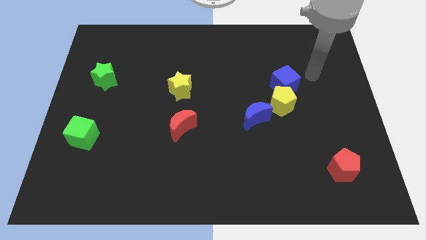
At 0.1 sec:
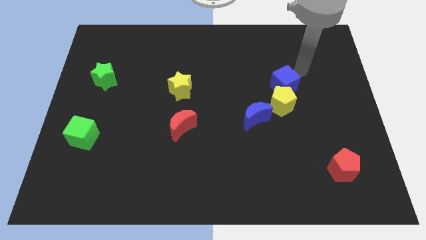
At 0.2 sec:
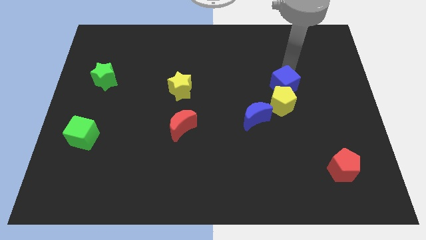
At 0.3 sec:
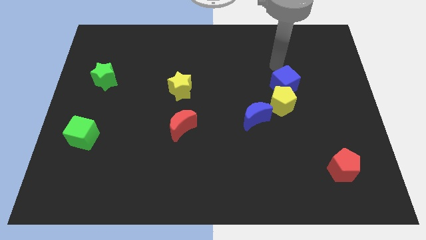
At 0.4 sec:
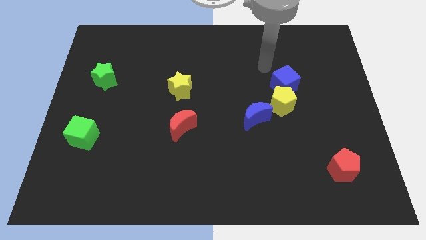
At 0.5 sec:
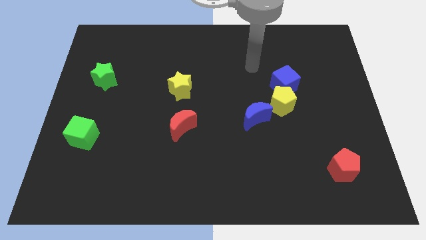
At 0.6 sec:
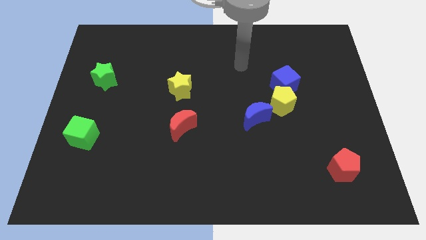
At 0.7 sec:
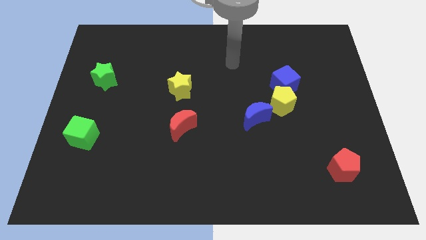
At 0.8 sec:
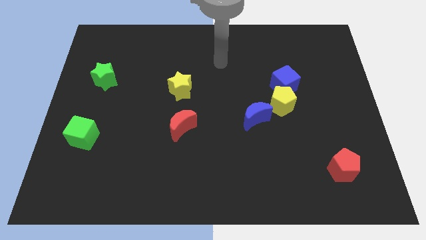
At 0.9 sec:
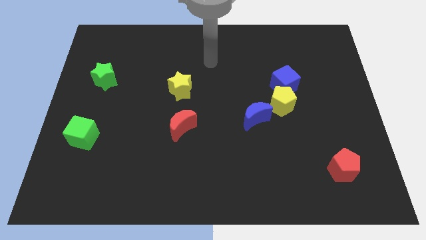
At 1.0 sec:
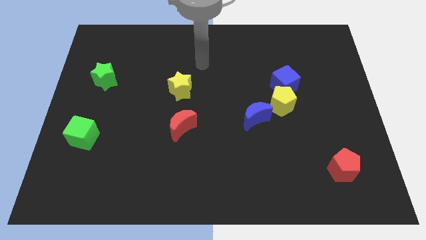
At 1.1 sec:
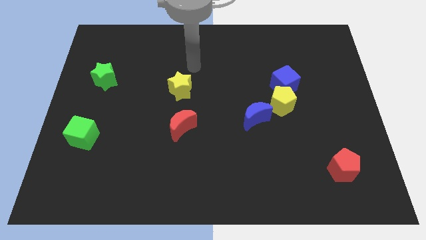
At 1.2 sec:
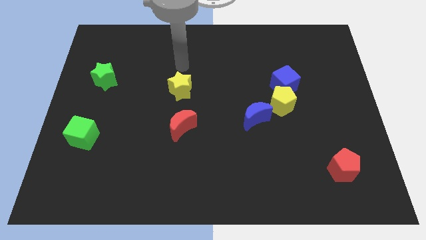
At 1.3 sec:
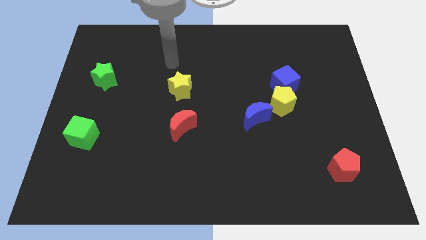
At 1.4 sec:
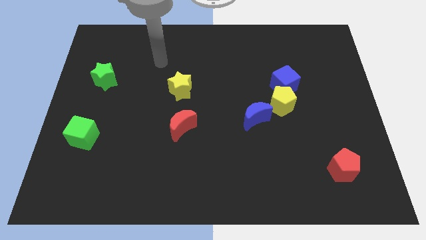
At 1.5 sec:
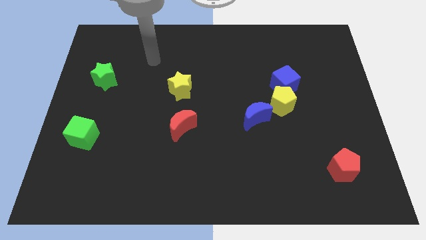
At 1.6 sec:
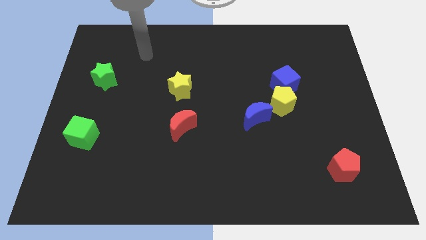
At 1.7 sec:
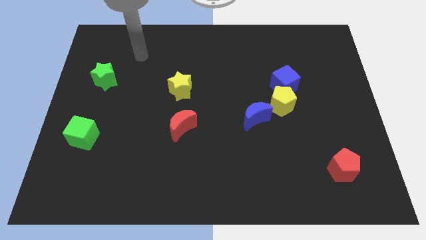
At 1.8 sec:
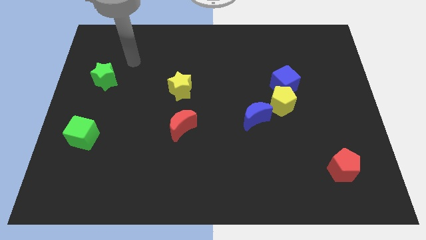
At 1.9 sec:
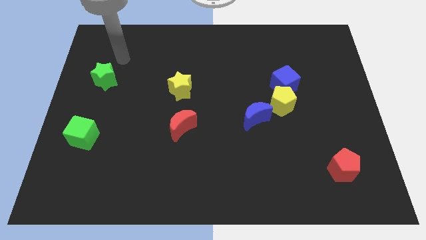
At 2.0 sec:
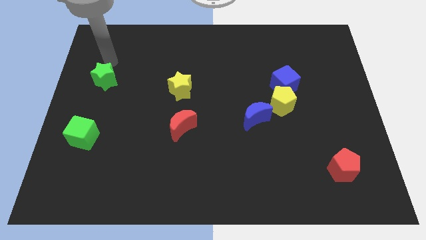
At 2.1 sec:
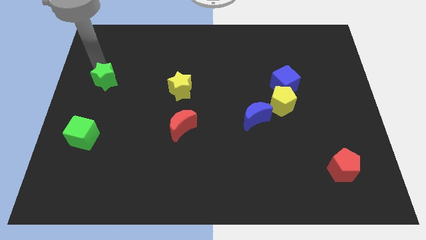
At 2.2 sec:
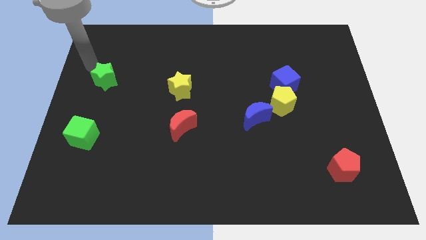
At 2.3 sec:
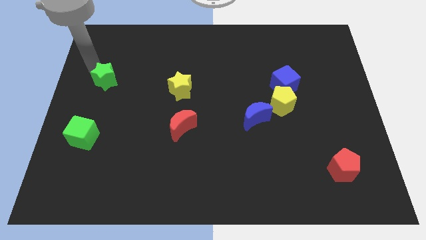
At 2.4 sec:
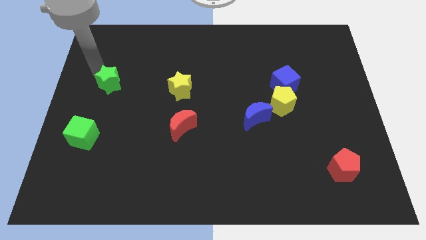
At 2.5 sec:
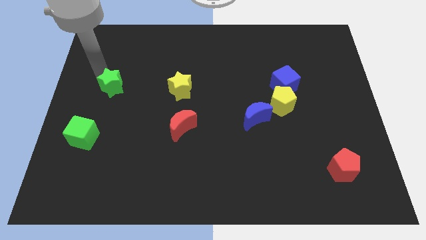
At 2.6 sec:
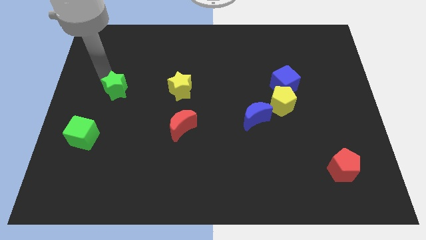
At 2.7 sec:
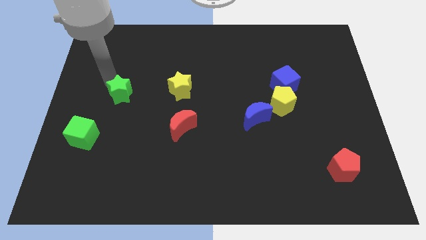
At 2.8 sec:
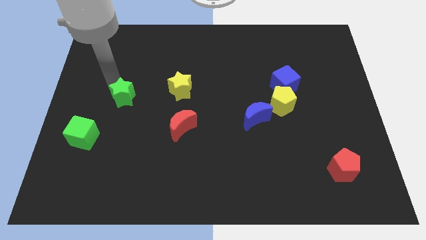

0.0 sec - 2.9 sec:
move the green star a bit downwards and then right

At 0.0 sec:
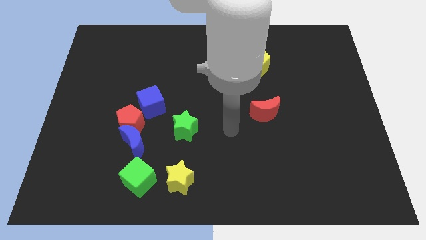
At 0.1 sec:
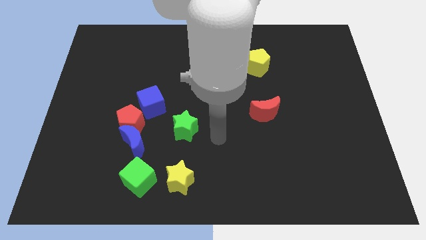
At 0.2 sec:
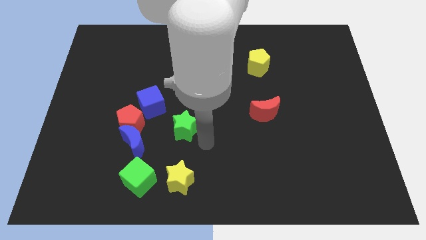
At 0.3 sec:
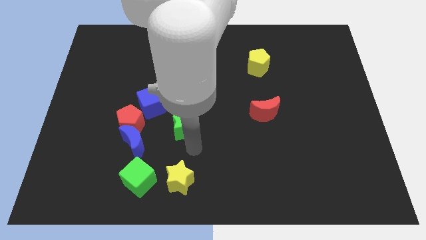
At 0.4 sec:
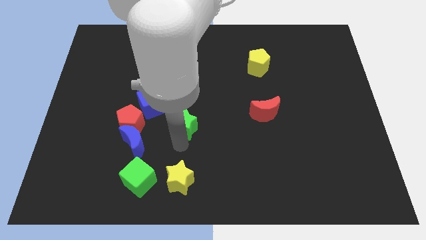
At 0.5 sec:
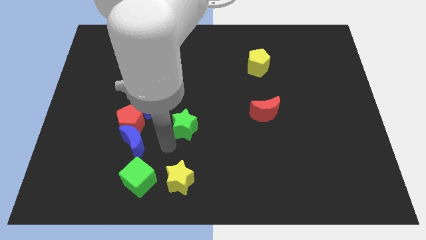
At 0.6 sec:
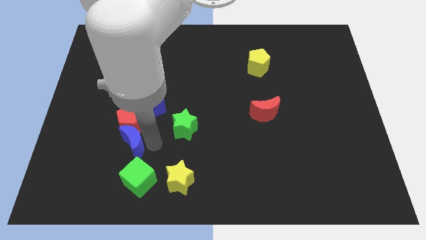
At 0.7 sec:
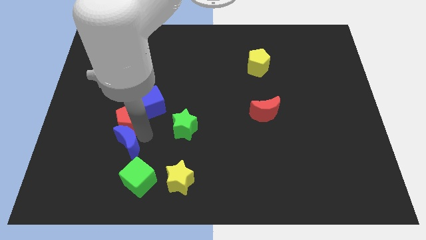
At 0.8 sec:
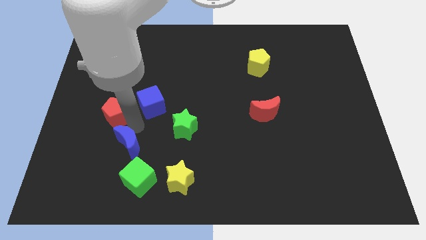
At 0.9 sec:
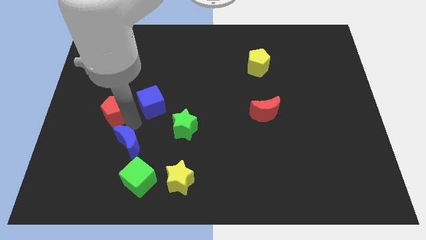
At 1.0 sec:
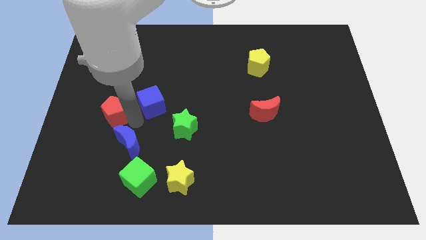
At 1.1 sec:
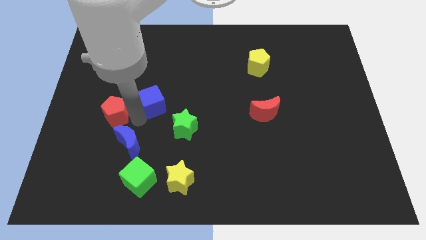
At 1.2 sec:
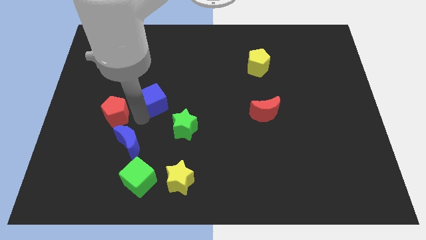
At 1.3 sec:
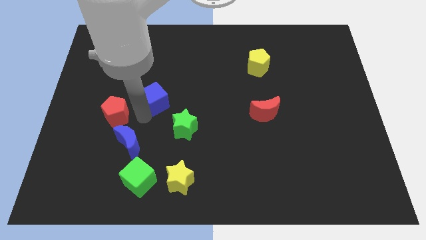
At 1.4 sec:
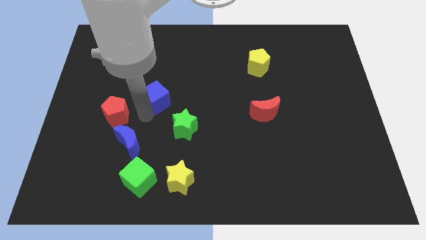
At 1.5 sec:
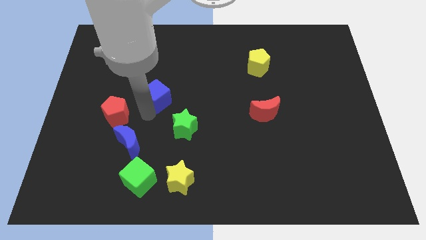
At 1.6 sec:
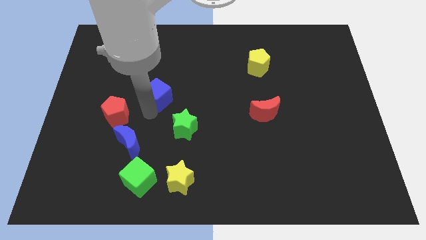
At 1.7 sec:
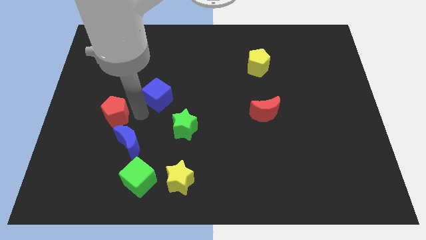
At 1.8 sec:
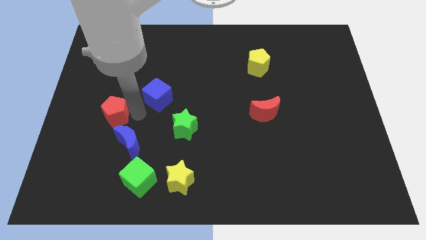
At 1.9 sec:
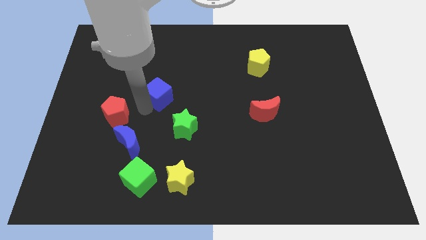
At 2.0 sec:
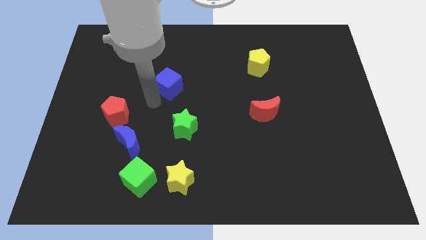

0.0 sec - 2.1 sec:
move the blue cube somewhat up and to the right diagonally

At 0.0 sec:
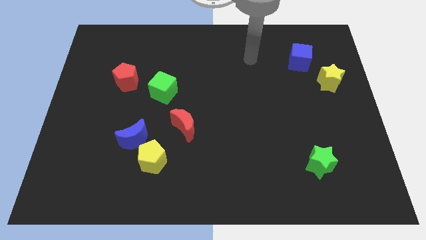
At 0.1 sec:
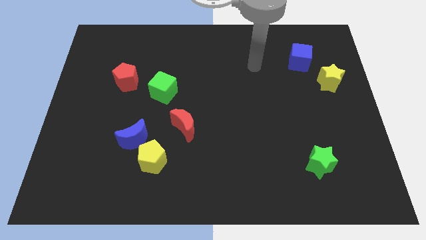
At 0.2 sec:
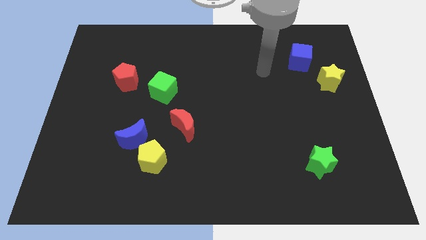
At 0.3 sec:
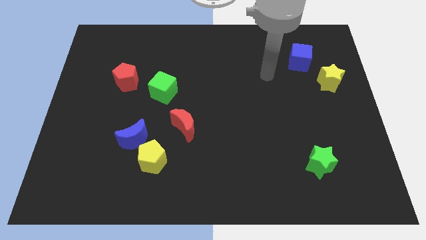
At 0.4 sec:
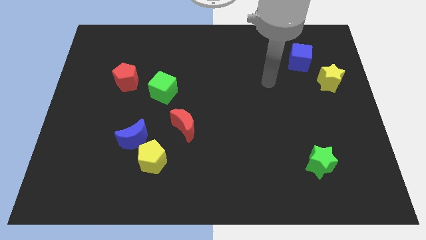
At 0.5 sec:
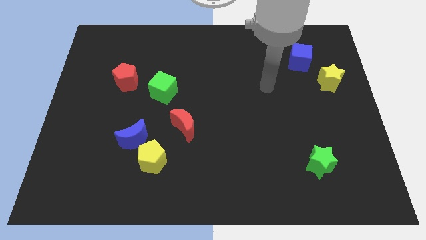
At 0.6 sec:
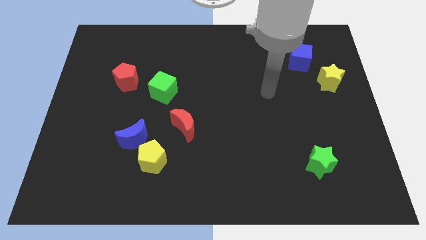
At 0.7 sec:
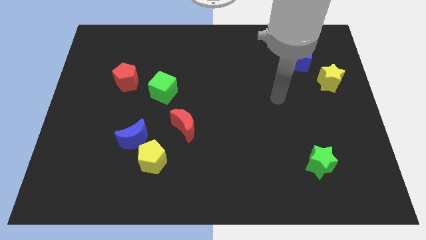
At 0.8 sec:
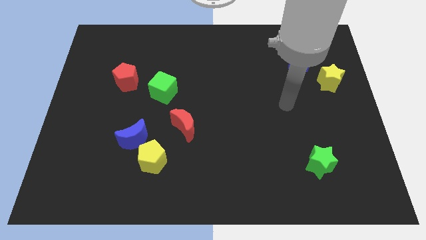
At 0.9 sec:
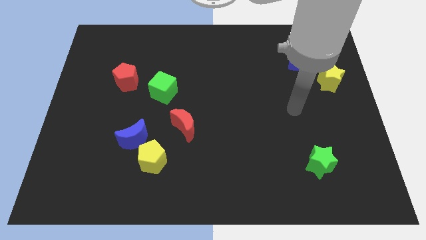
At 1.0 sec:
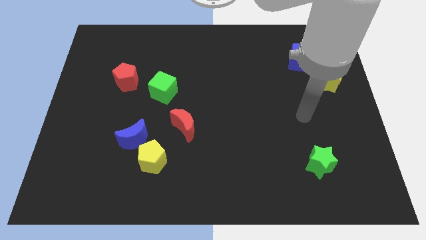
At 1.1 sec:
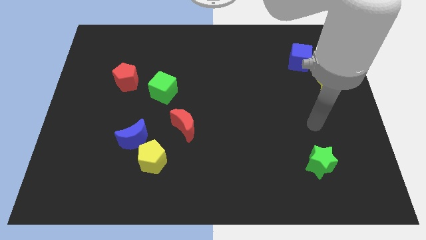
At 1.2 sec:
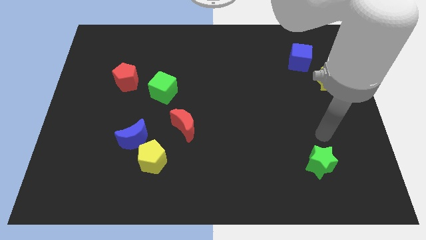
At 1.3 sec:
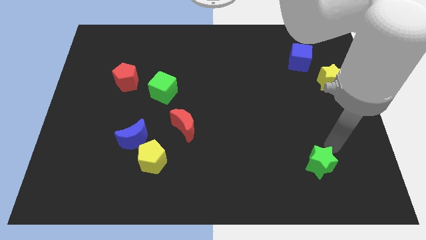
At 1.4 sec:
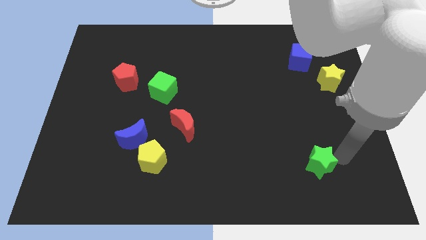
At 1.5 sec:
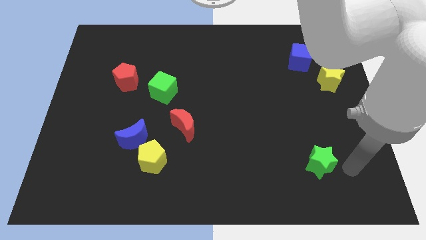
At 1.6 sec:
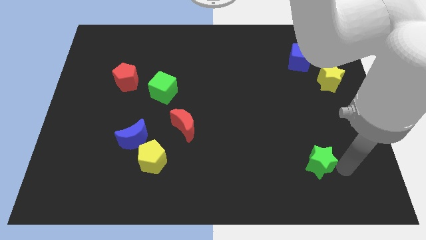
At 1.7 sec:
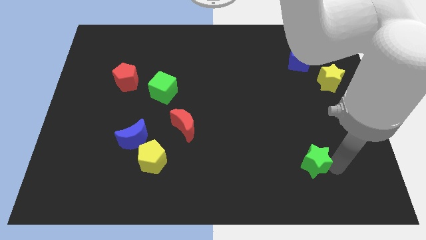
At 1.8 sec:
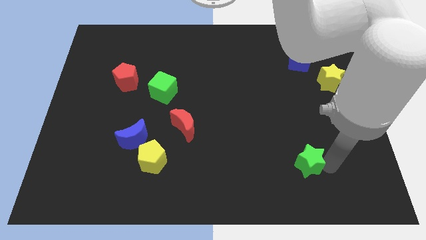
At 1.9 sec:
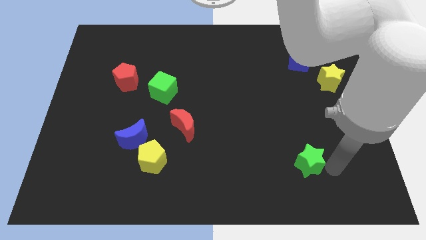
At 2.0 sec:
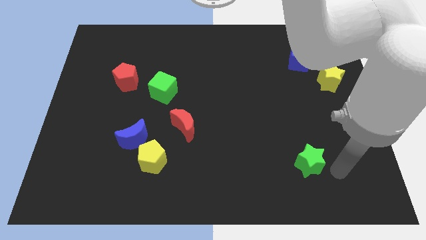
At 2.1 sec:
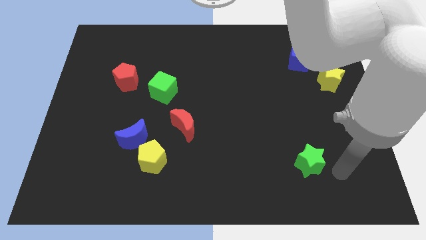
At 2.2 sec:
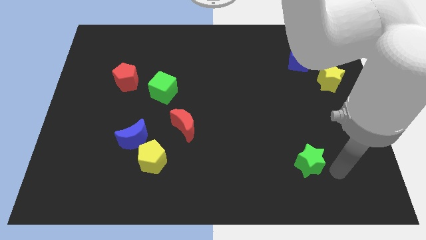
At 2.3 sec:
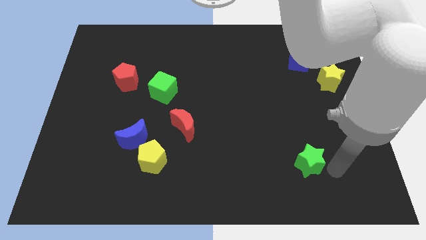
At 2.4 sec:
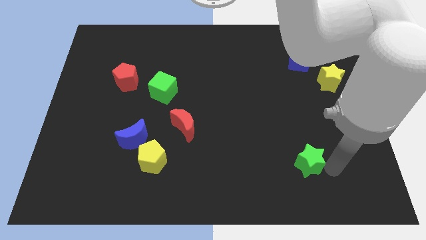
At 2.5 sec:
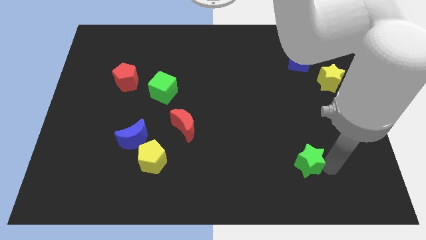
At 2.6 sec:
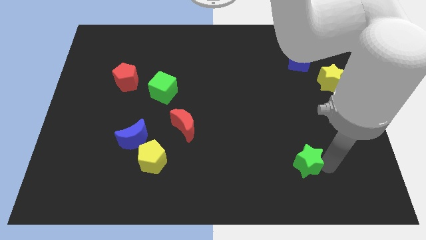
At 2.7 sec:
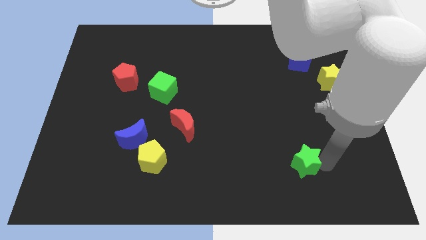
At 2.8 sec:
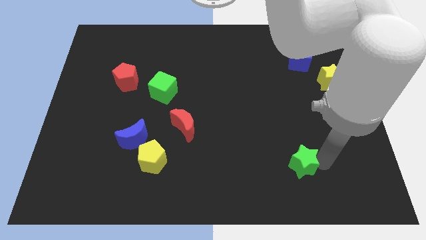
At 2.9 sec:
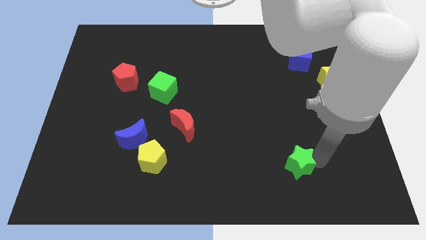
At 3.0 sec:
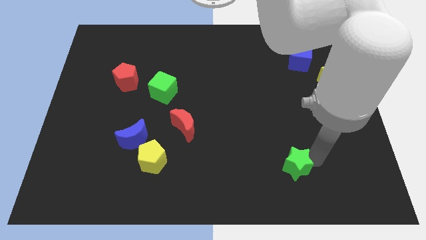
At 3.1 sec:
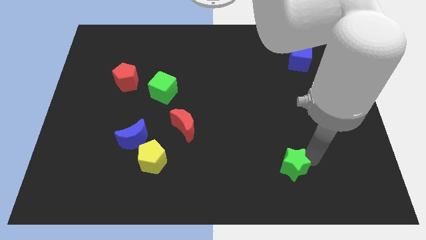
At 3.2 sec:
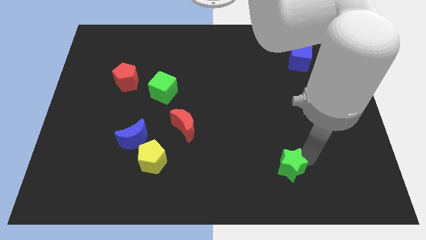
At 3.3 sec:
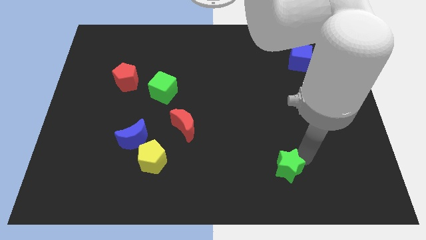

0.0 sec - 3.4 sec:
slide the green star to the left a little bit
